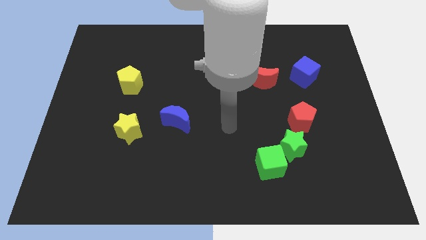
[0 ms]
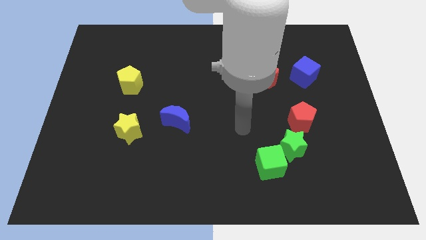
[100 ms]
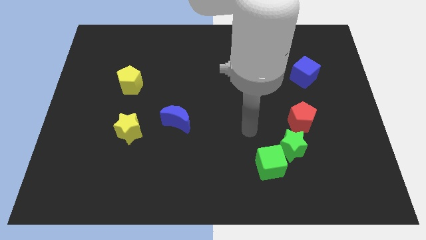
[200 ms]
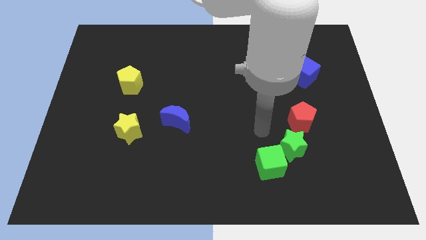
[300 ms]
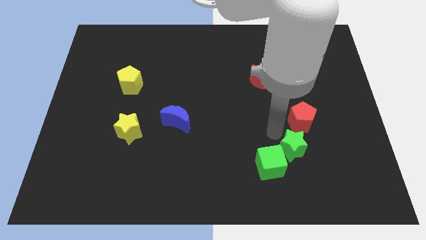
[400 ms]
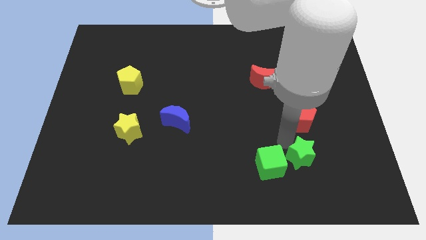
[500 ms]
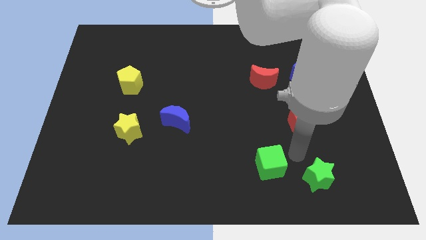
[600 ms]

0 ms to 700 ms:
pull the green cube apart from the green star

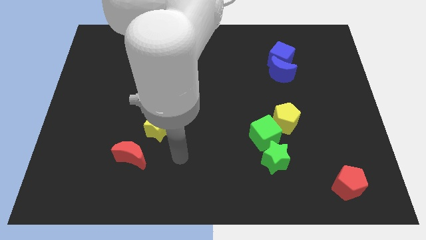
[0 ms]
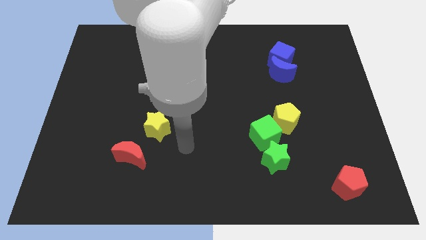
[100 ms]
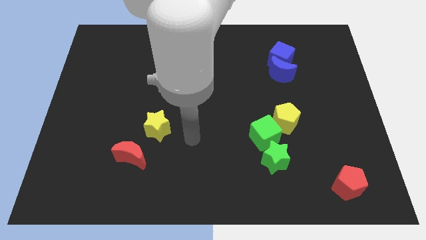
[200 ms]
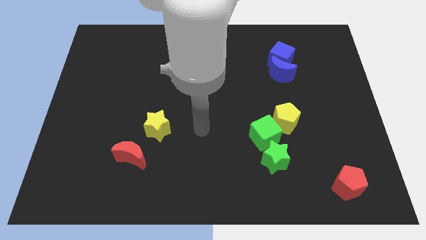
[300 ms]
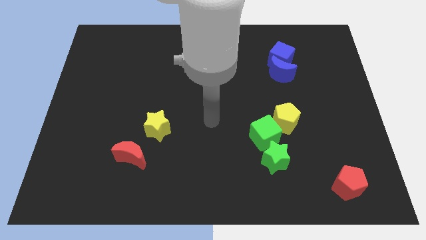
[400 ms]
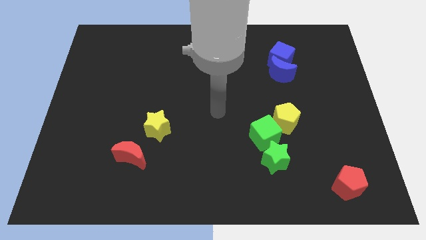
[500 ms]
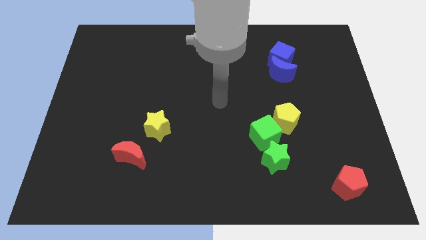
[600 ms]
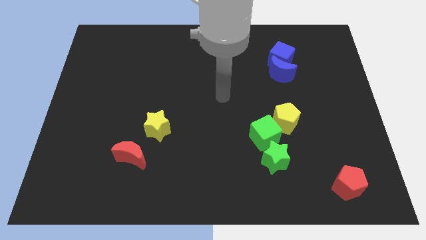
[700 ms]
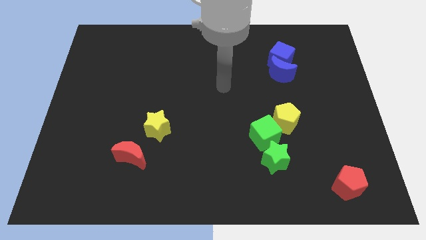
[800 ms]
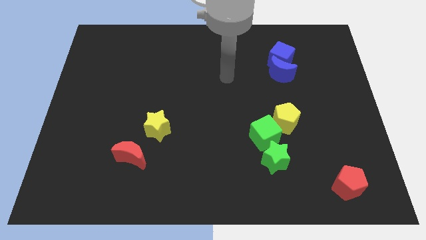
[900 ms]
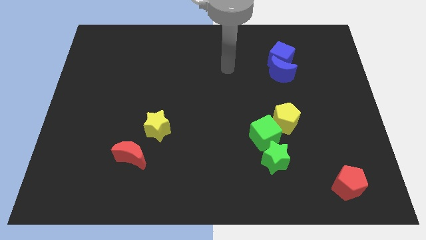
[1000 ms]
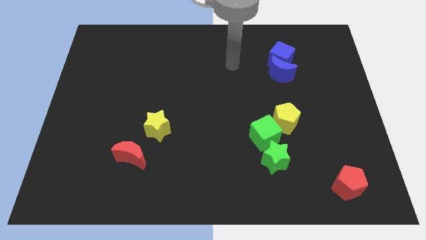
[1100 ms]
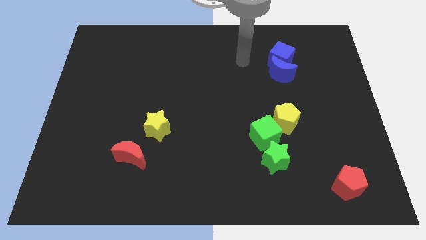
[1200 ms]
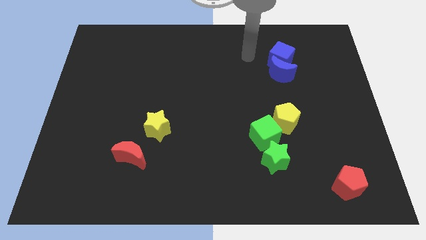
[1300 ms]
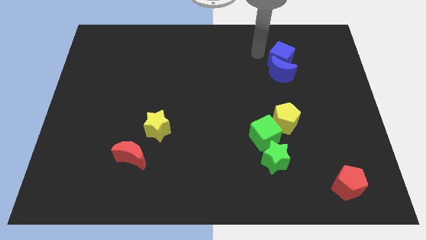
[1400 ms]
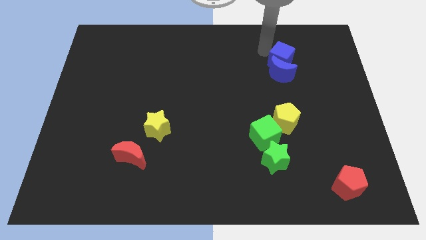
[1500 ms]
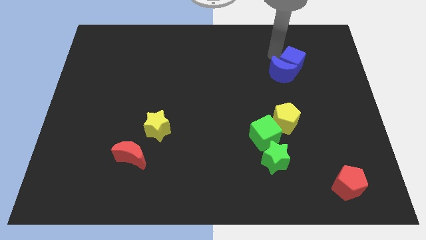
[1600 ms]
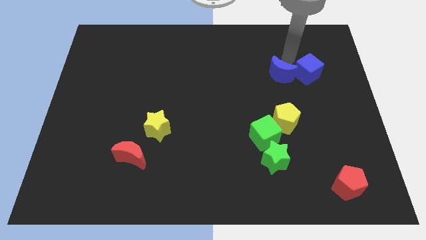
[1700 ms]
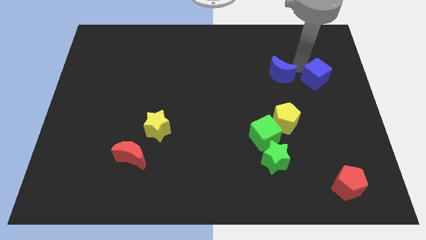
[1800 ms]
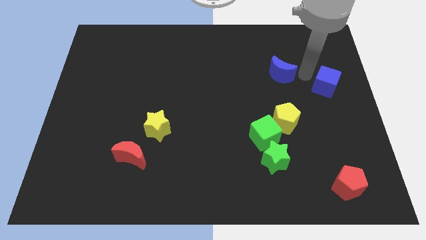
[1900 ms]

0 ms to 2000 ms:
separate the blue moon from the blue cube

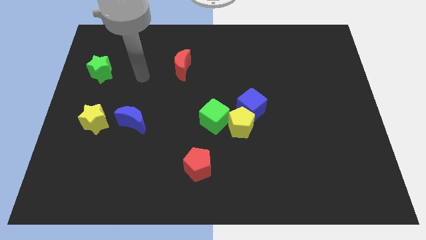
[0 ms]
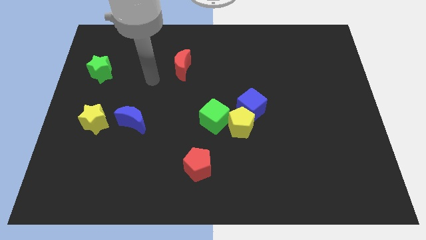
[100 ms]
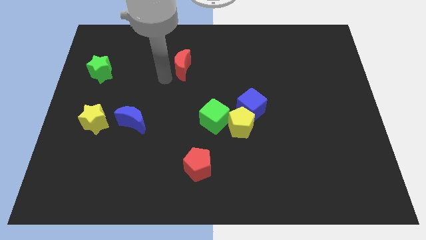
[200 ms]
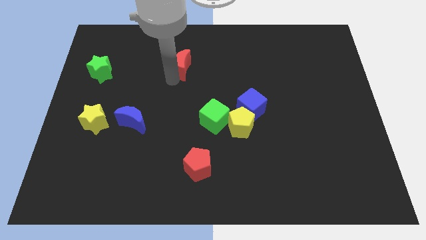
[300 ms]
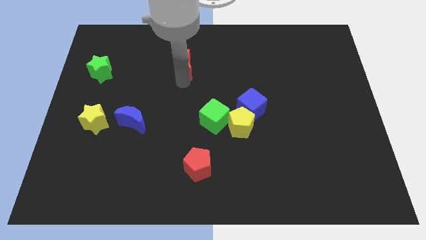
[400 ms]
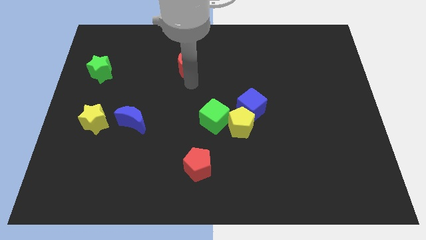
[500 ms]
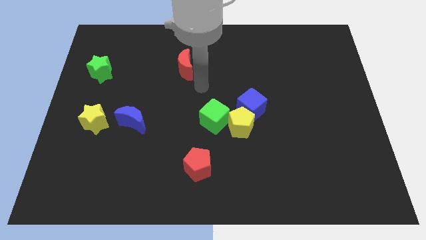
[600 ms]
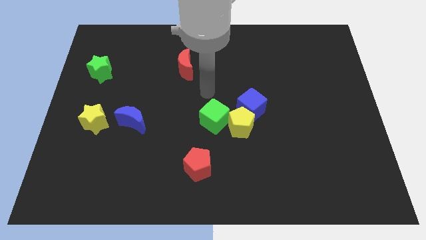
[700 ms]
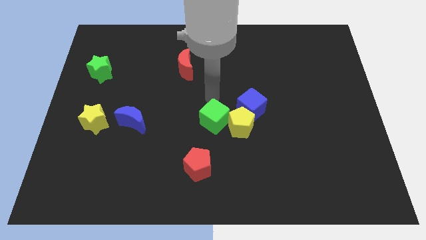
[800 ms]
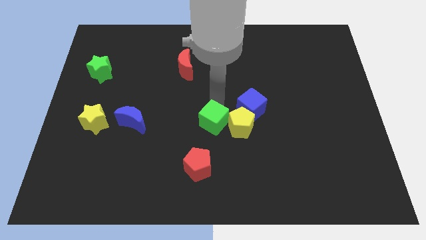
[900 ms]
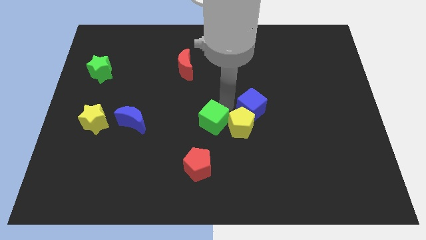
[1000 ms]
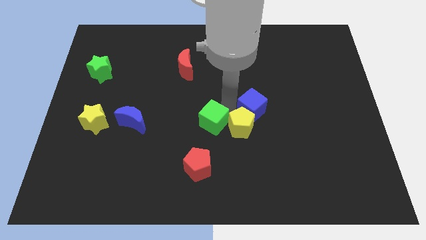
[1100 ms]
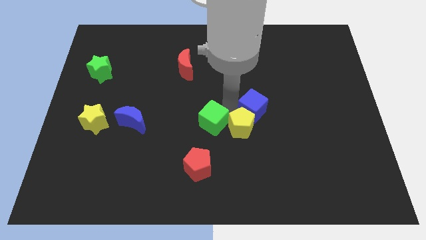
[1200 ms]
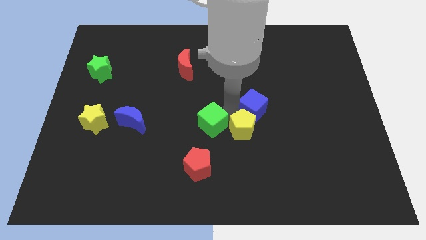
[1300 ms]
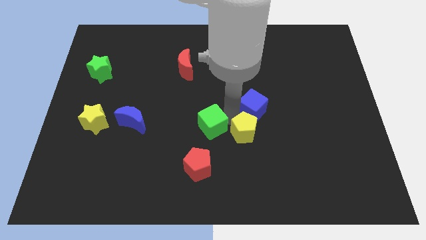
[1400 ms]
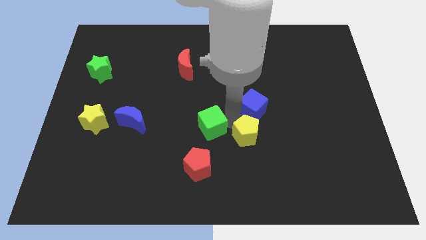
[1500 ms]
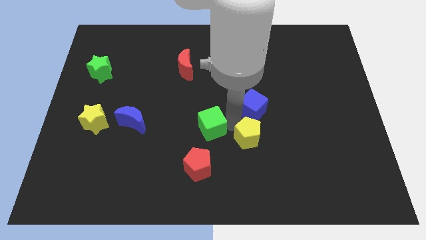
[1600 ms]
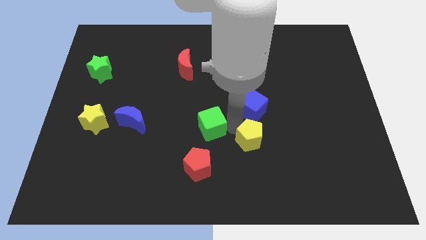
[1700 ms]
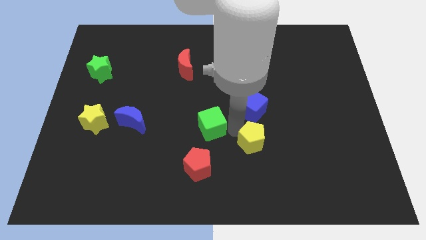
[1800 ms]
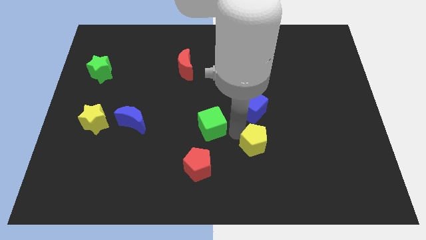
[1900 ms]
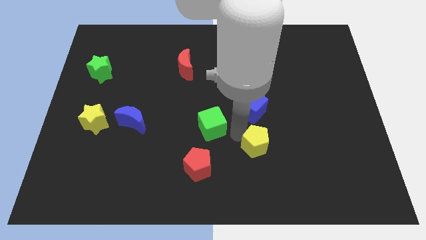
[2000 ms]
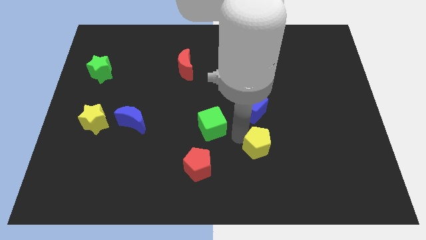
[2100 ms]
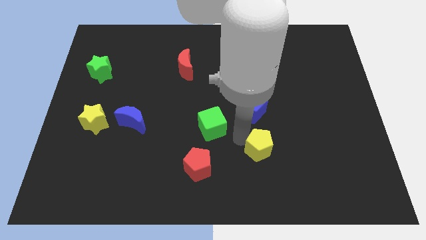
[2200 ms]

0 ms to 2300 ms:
separate the yellow pentagon from the blue cube and green cube

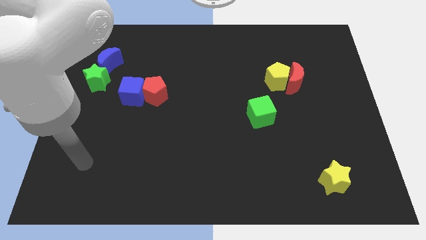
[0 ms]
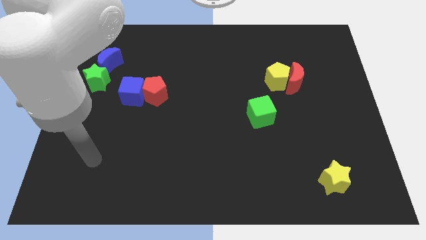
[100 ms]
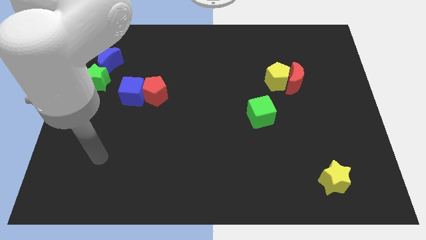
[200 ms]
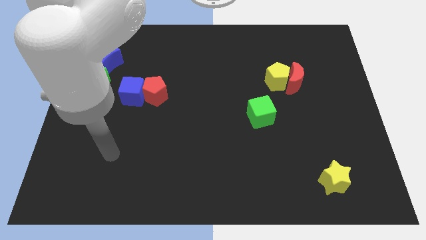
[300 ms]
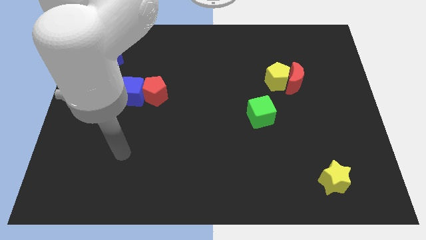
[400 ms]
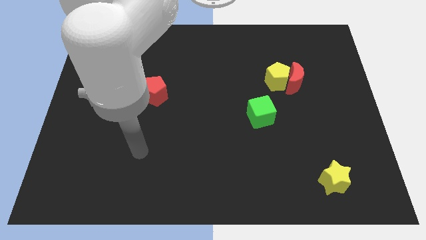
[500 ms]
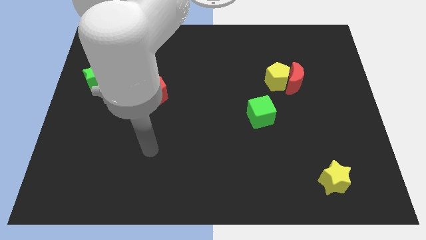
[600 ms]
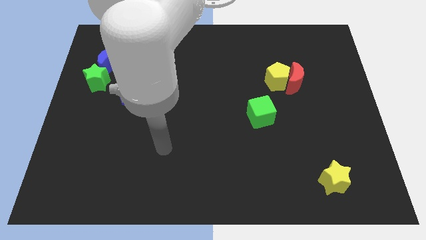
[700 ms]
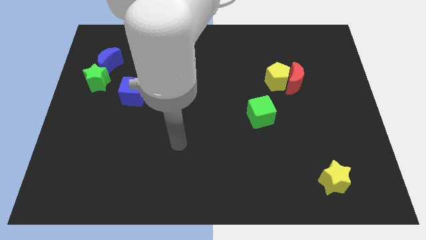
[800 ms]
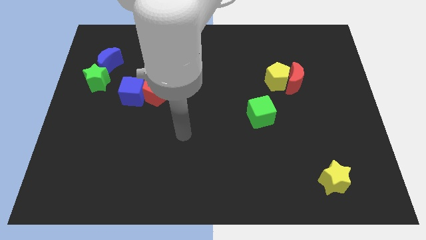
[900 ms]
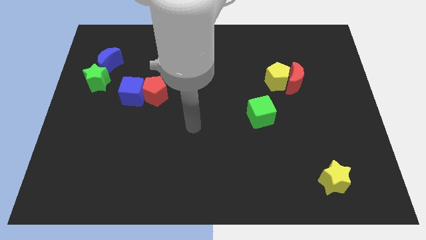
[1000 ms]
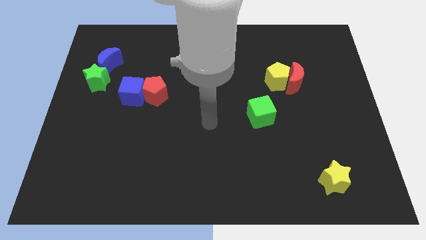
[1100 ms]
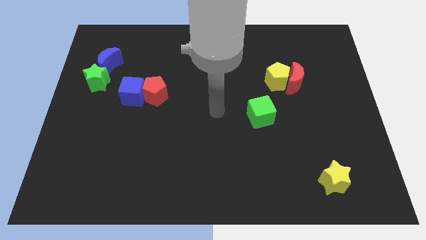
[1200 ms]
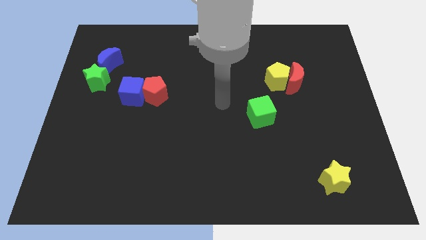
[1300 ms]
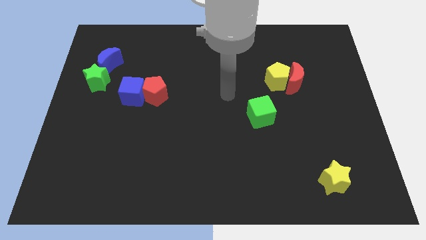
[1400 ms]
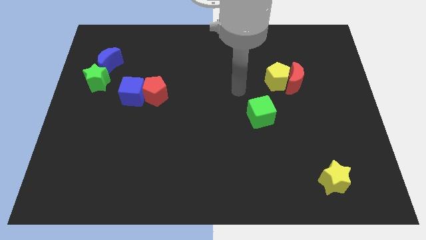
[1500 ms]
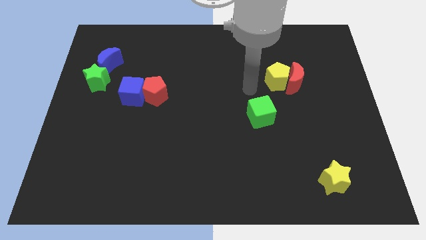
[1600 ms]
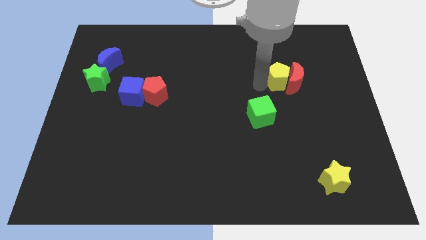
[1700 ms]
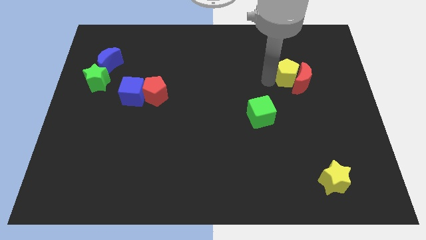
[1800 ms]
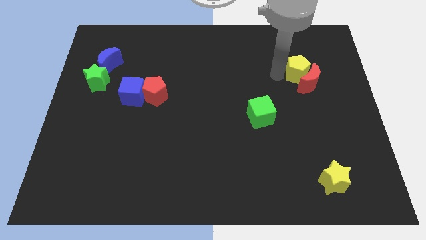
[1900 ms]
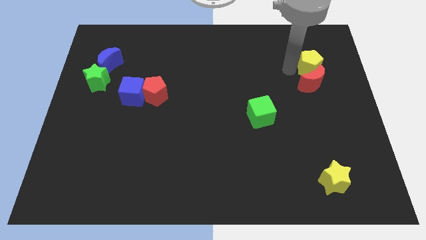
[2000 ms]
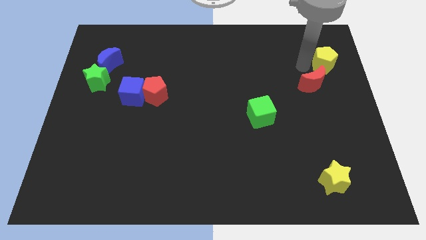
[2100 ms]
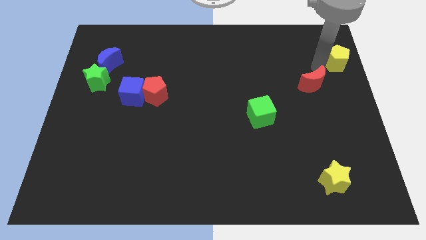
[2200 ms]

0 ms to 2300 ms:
pull the red moon apart from the yellow pentagon

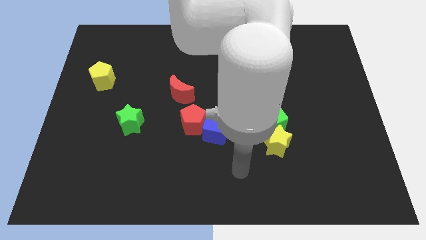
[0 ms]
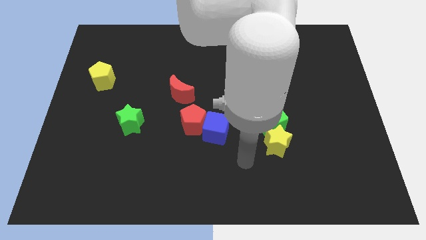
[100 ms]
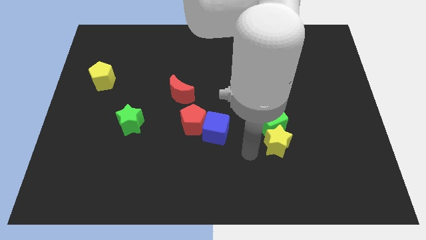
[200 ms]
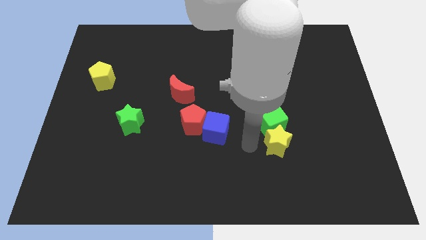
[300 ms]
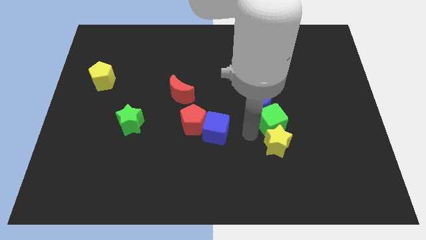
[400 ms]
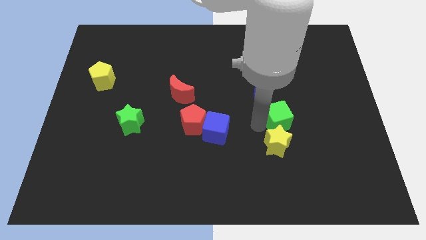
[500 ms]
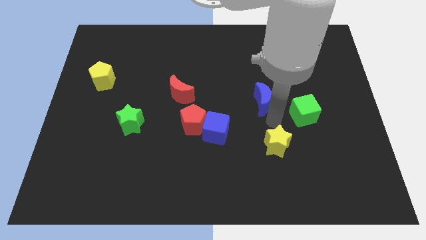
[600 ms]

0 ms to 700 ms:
move the yellow star away from the green cube

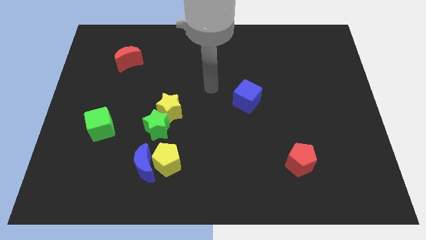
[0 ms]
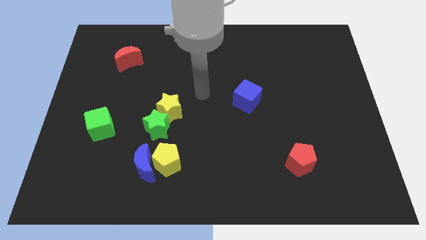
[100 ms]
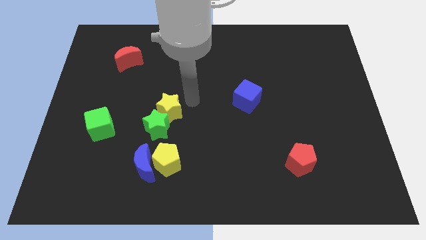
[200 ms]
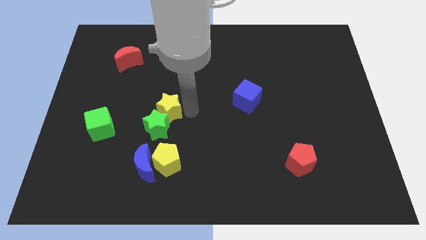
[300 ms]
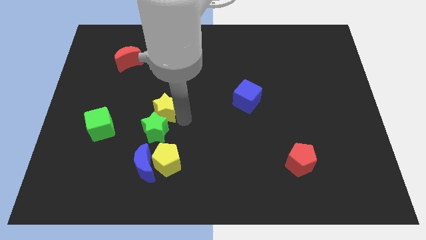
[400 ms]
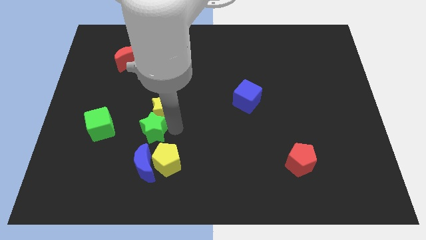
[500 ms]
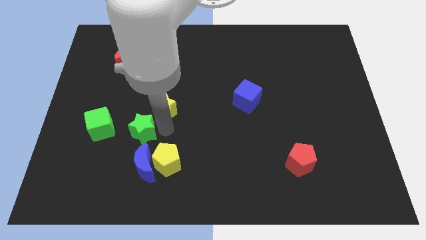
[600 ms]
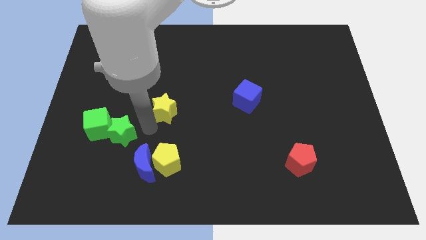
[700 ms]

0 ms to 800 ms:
separate the yellow star from the green star

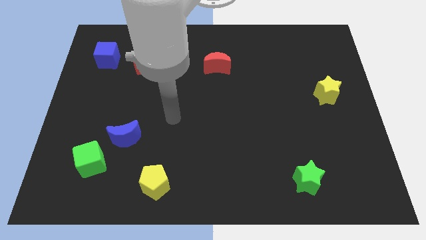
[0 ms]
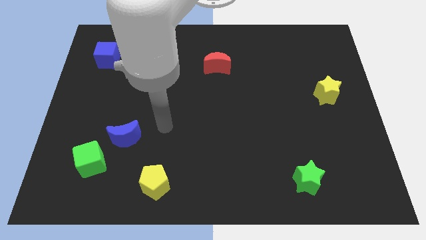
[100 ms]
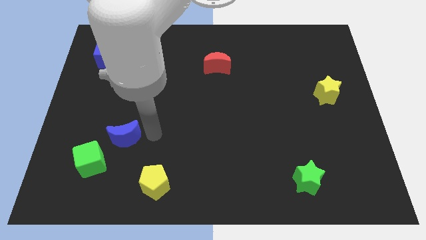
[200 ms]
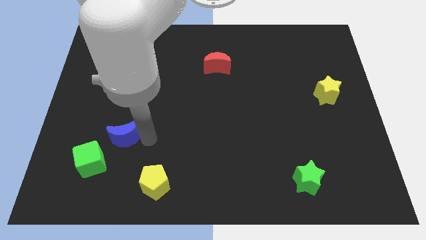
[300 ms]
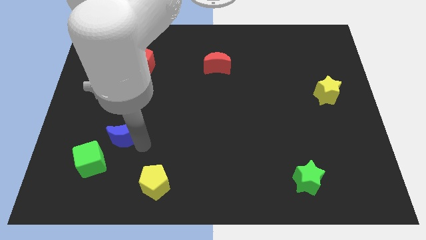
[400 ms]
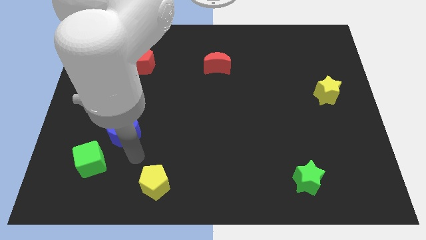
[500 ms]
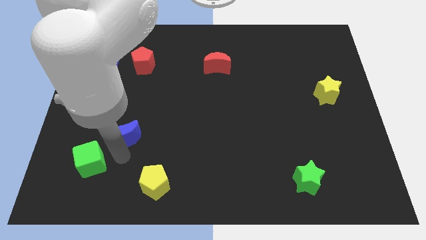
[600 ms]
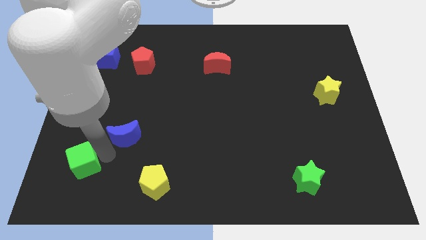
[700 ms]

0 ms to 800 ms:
move the blue moon away from the green cube
